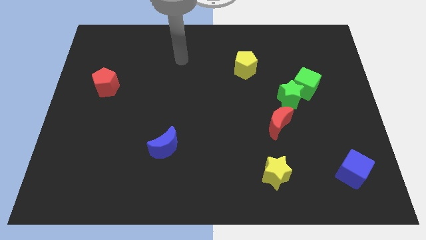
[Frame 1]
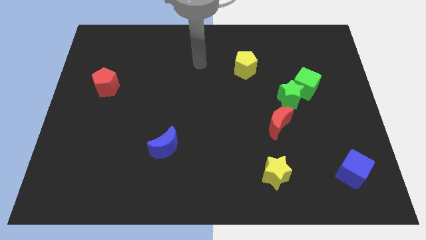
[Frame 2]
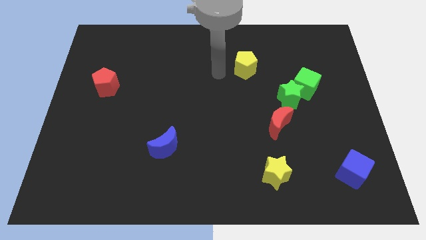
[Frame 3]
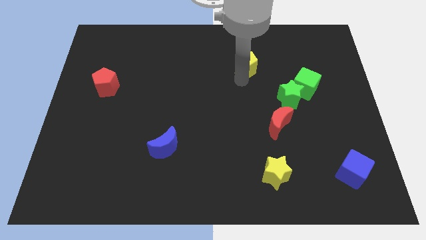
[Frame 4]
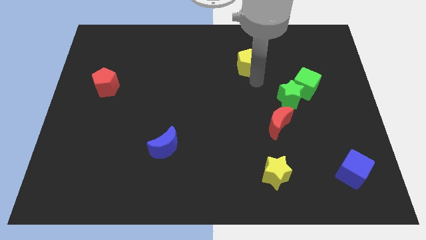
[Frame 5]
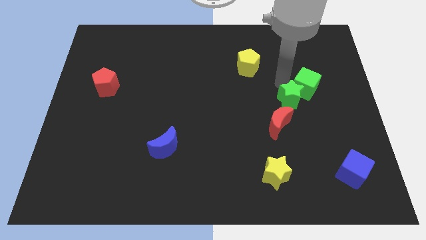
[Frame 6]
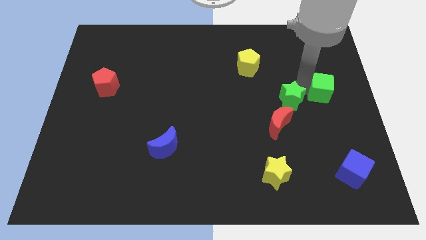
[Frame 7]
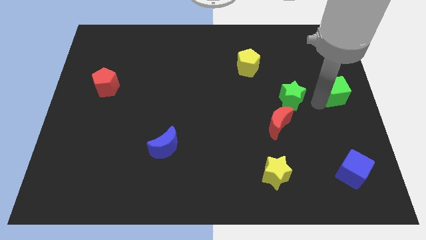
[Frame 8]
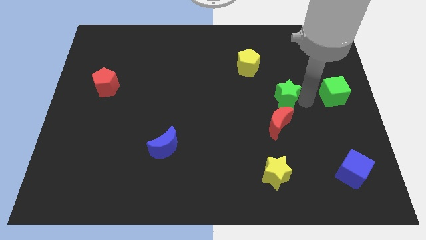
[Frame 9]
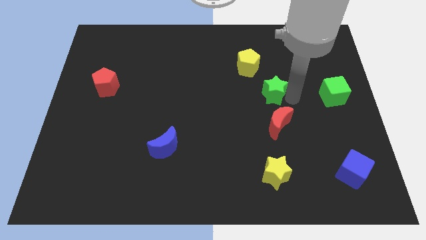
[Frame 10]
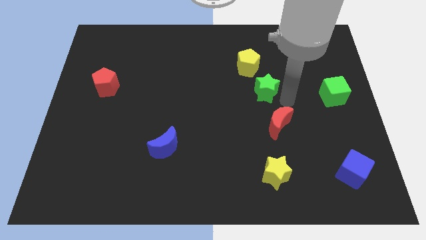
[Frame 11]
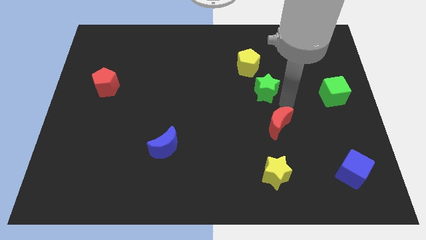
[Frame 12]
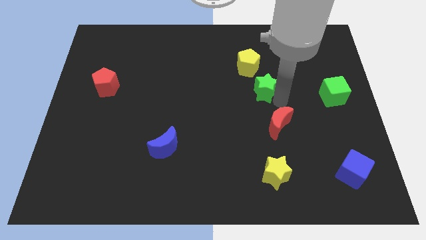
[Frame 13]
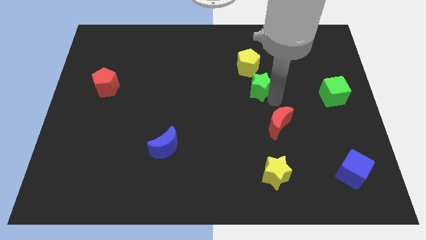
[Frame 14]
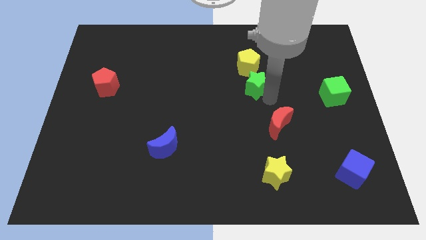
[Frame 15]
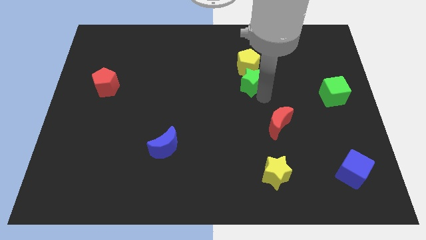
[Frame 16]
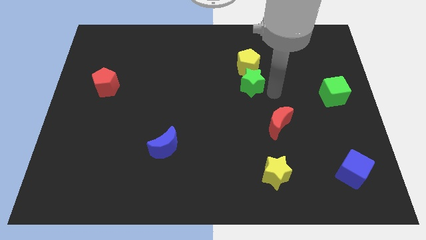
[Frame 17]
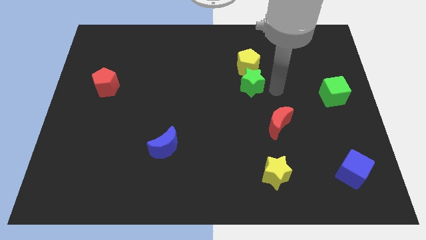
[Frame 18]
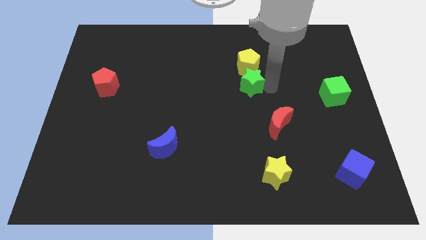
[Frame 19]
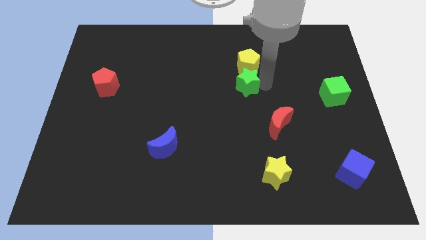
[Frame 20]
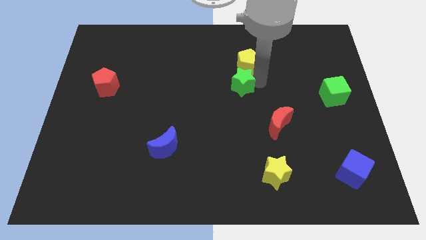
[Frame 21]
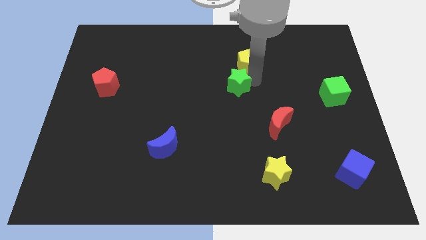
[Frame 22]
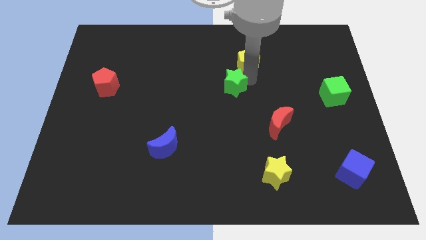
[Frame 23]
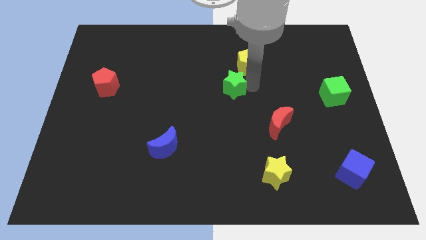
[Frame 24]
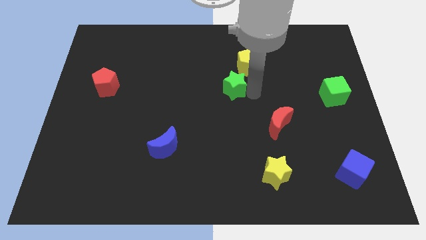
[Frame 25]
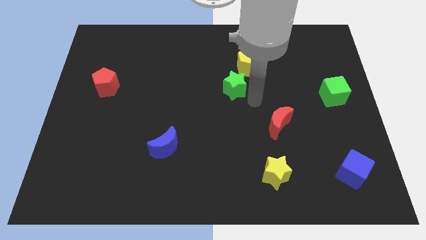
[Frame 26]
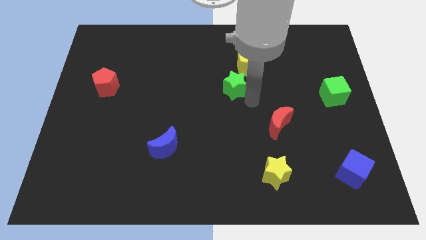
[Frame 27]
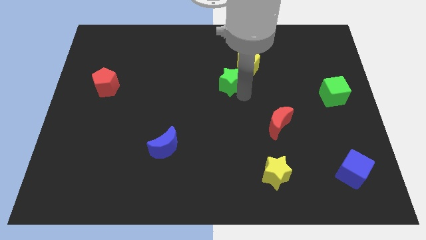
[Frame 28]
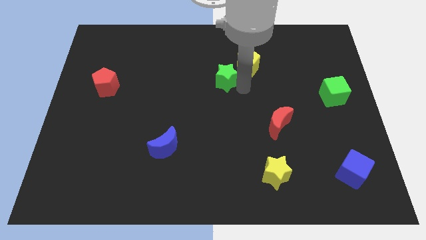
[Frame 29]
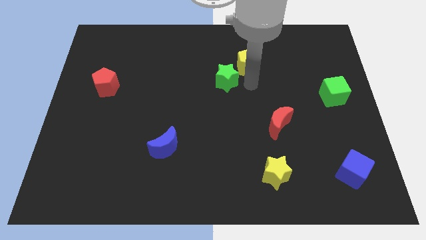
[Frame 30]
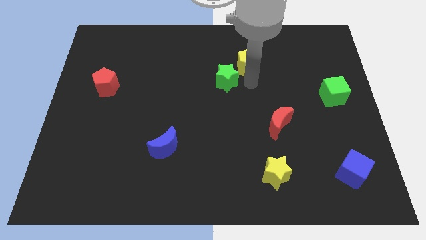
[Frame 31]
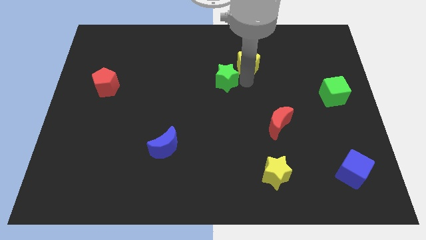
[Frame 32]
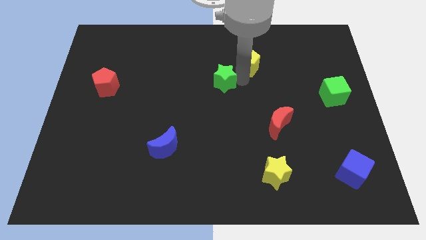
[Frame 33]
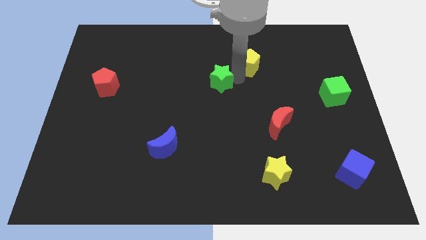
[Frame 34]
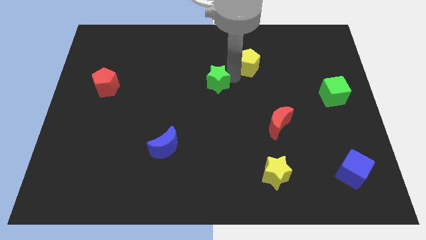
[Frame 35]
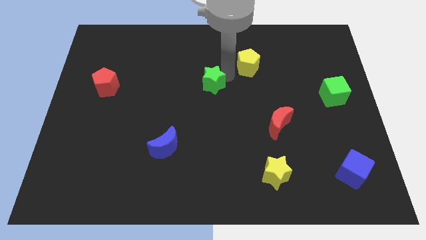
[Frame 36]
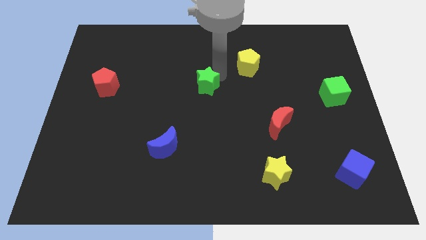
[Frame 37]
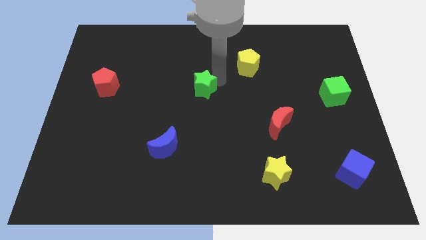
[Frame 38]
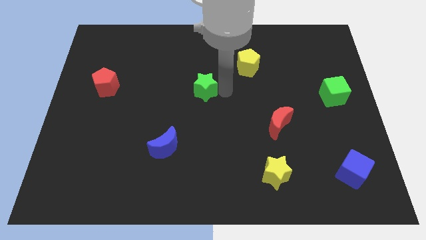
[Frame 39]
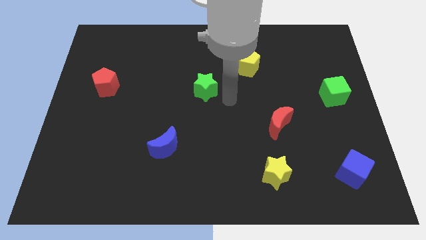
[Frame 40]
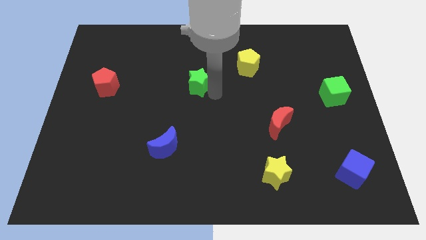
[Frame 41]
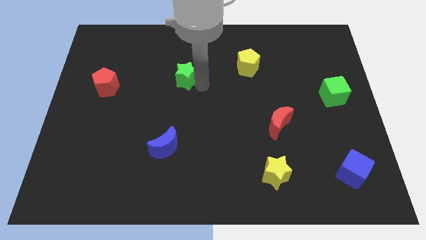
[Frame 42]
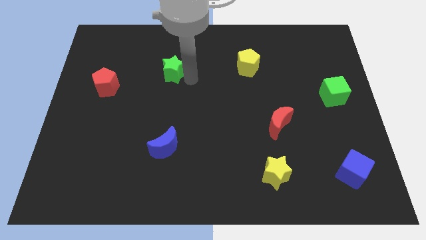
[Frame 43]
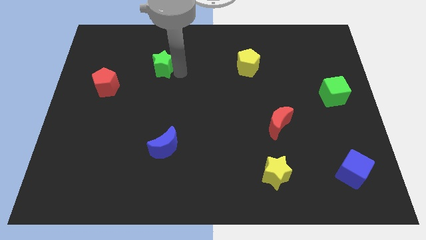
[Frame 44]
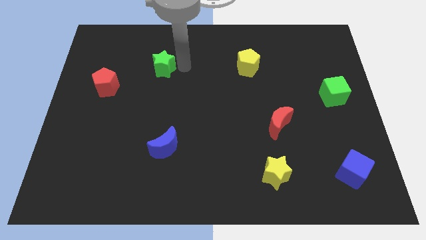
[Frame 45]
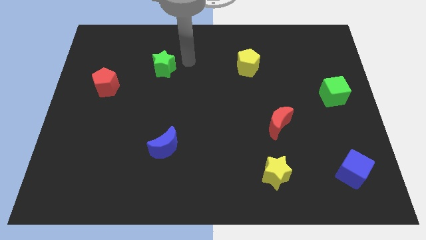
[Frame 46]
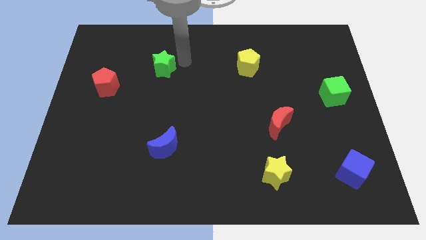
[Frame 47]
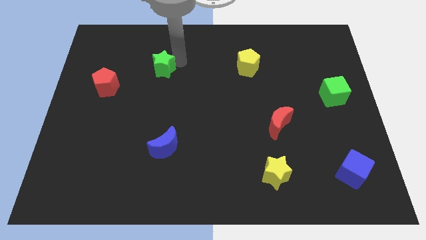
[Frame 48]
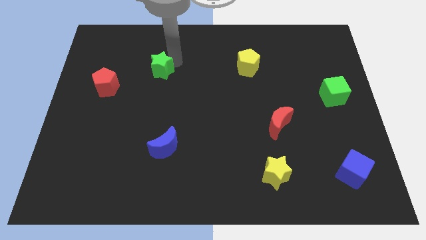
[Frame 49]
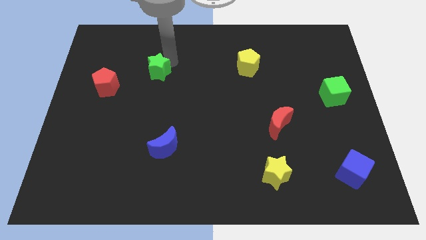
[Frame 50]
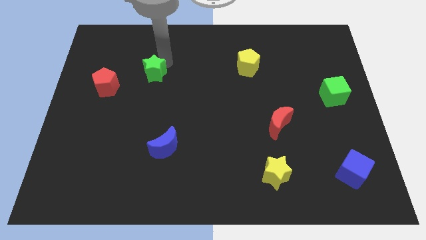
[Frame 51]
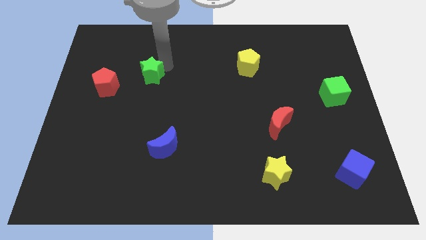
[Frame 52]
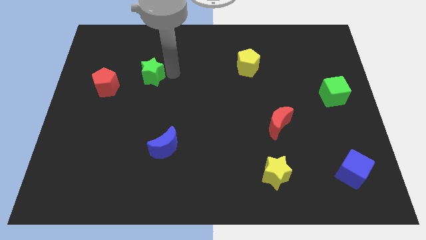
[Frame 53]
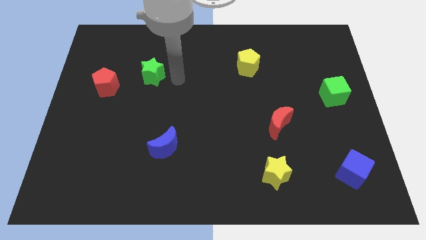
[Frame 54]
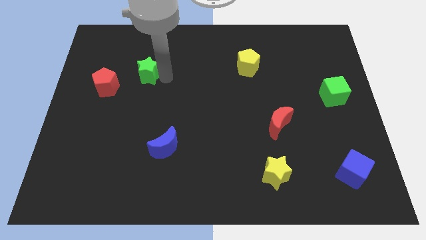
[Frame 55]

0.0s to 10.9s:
push the green star to the top right of the red pentagon

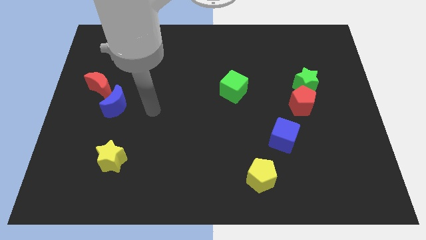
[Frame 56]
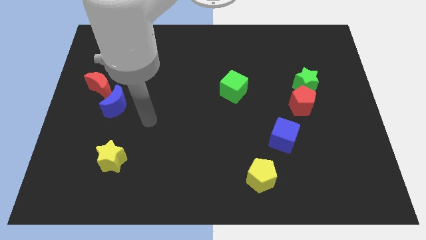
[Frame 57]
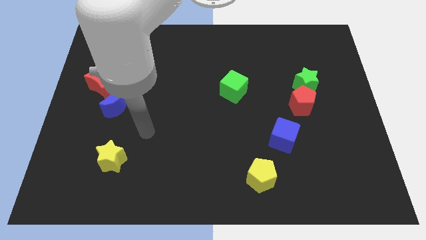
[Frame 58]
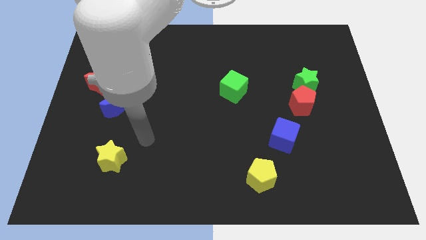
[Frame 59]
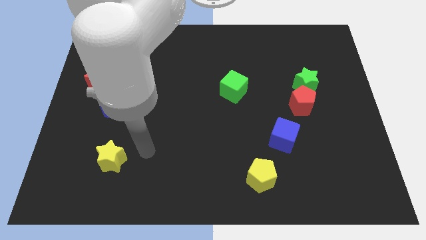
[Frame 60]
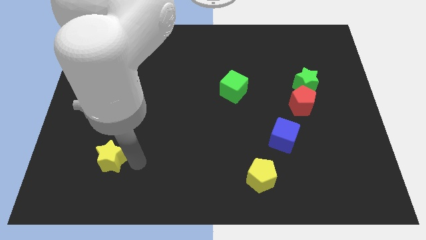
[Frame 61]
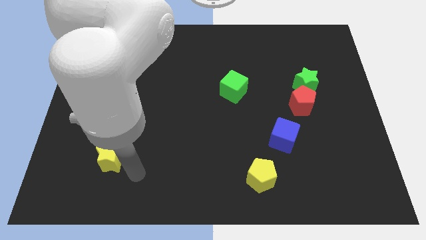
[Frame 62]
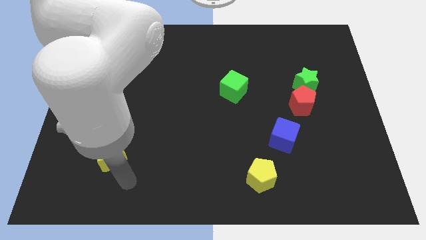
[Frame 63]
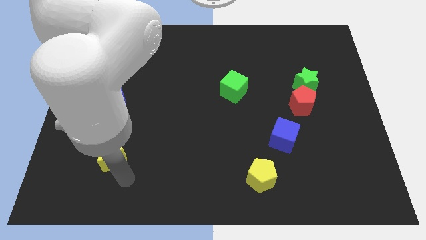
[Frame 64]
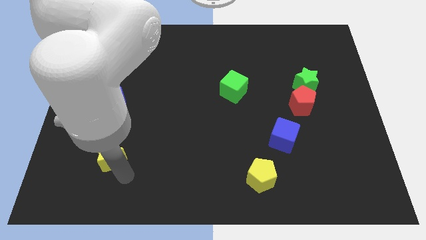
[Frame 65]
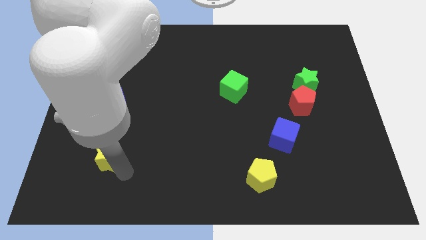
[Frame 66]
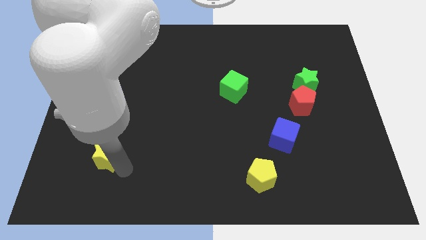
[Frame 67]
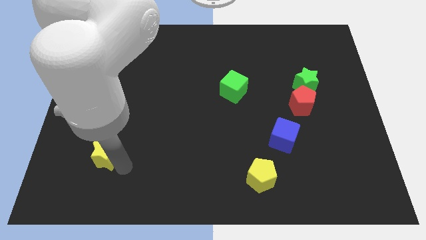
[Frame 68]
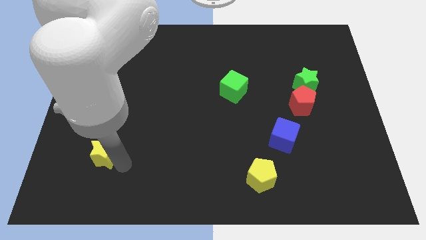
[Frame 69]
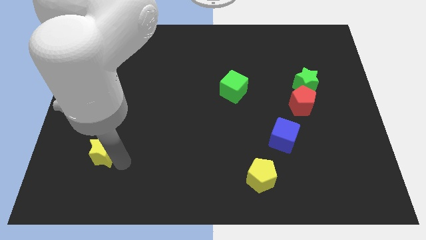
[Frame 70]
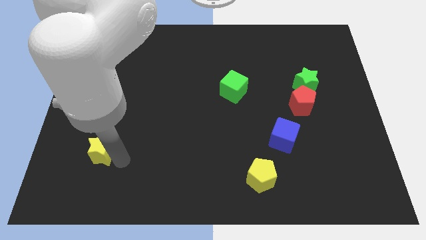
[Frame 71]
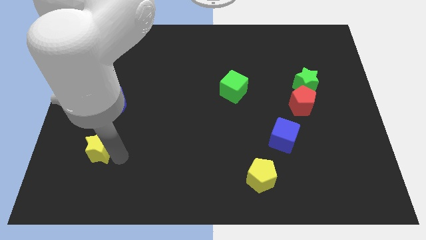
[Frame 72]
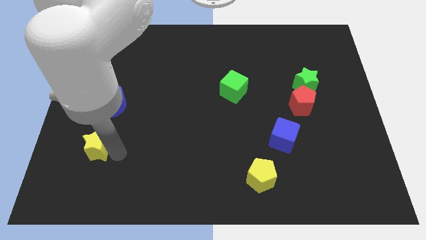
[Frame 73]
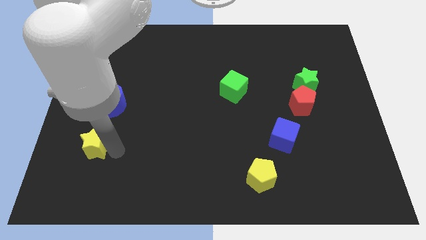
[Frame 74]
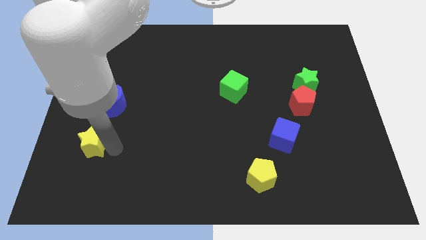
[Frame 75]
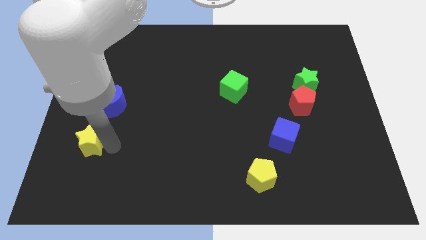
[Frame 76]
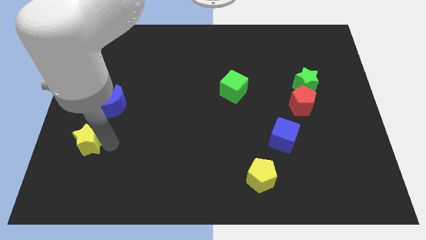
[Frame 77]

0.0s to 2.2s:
move the yellow star to the bottom left side of the blue moon
